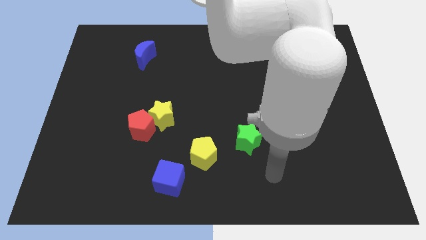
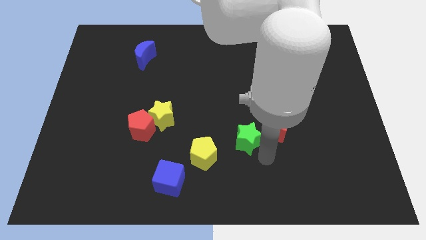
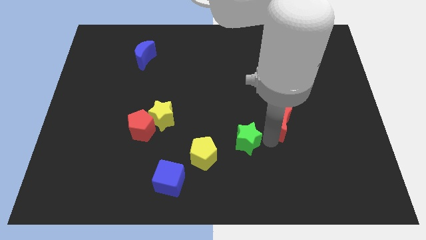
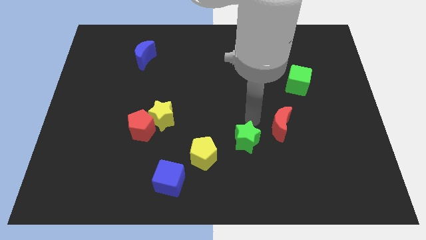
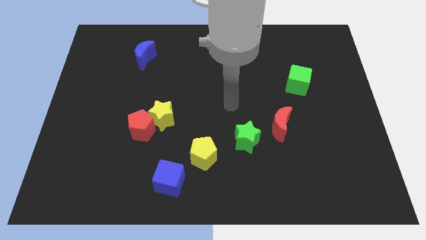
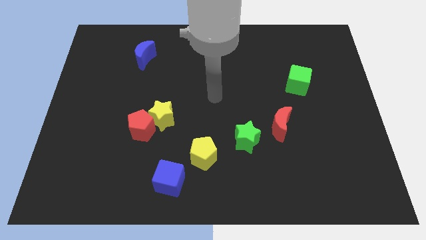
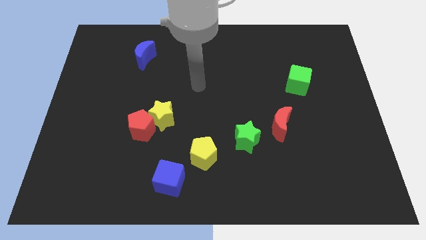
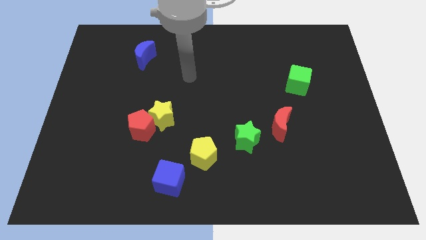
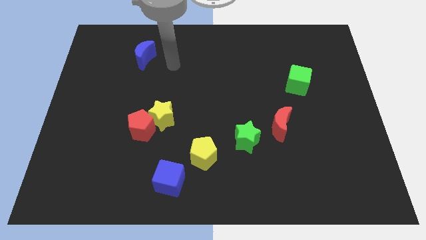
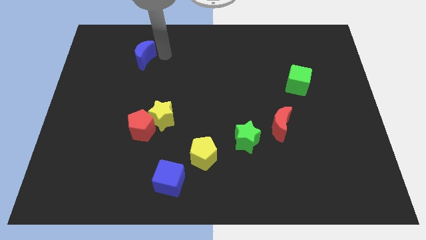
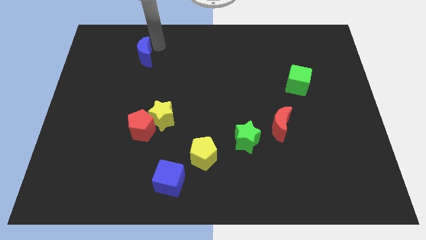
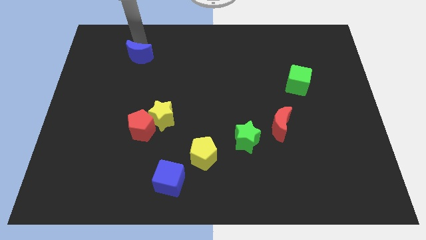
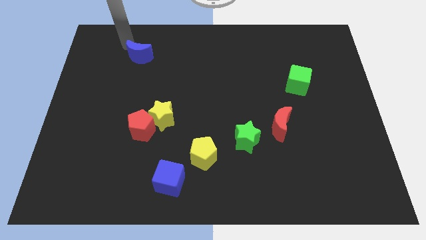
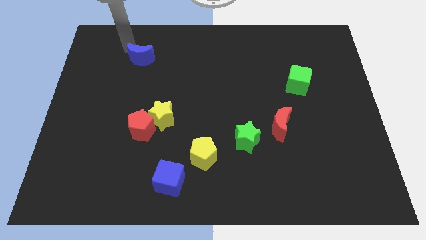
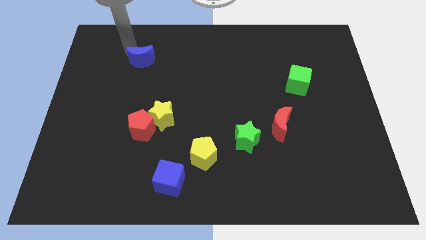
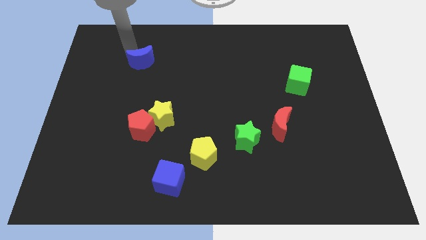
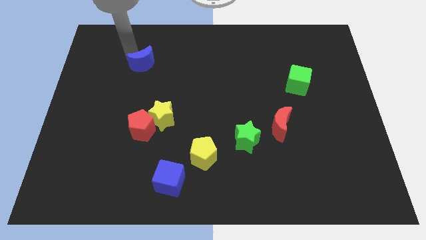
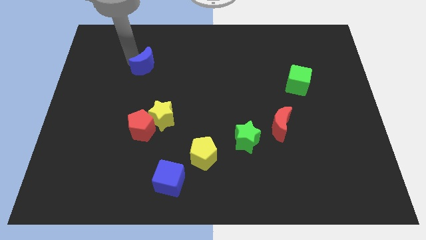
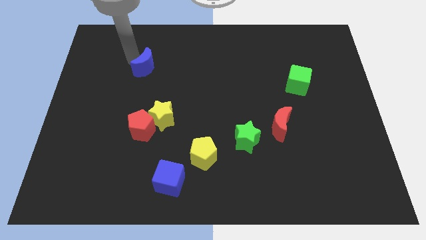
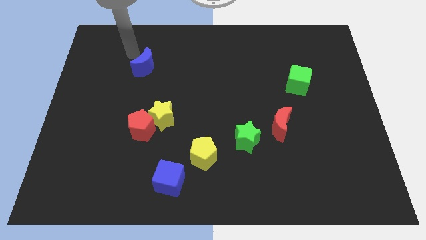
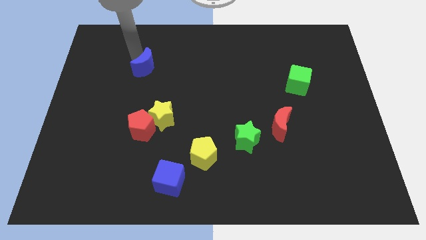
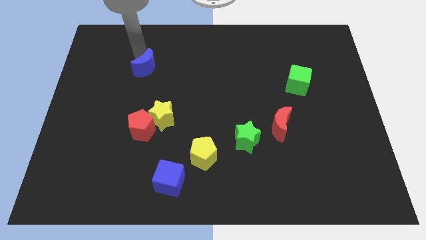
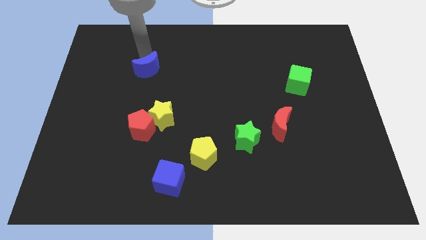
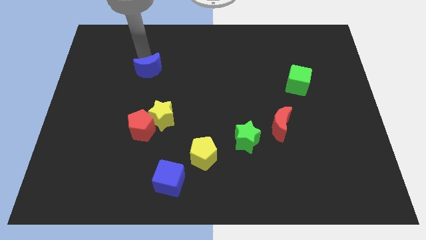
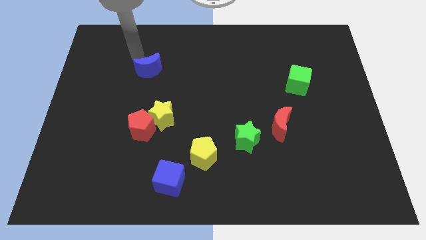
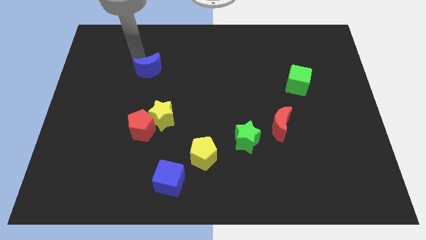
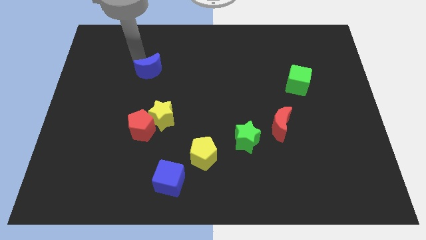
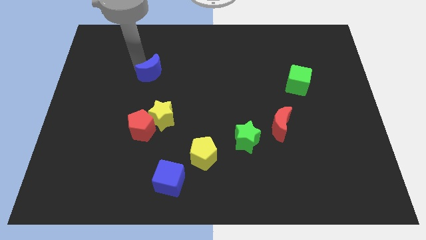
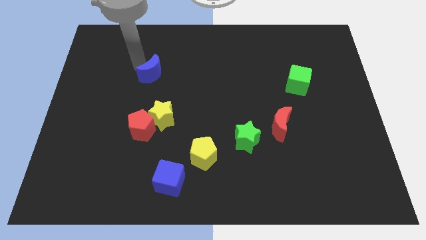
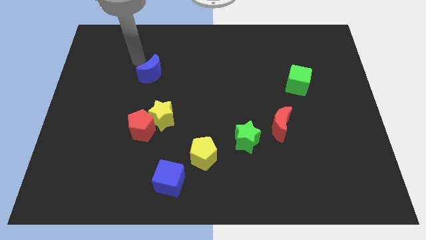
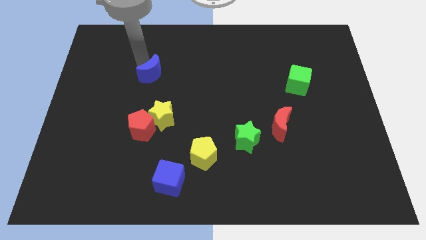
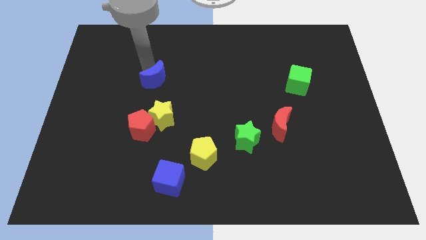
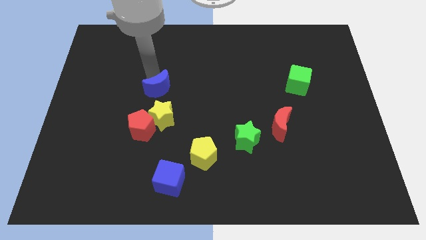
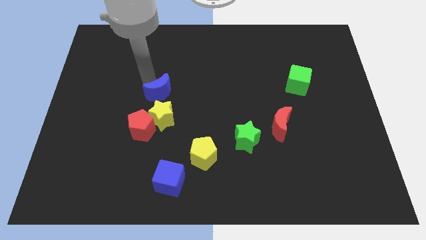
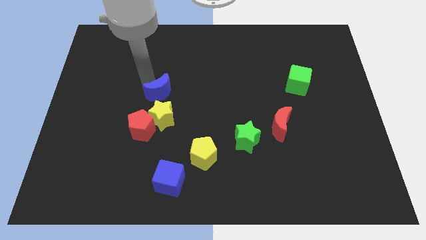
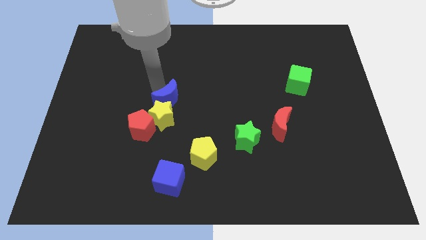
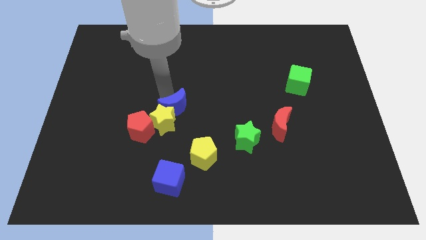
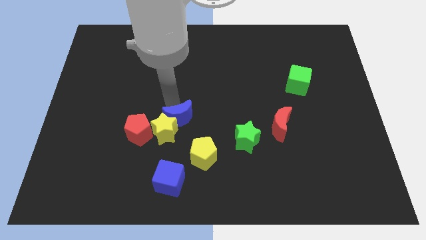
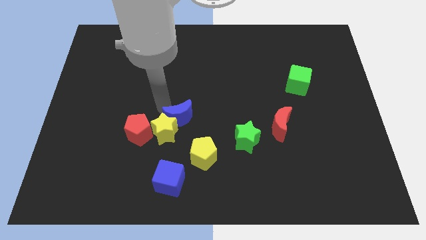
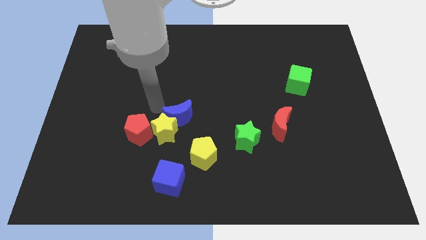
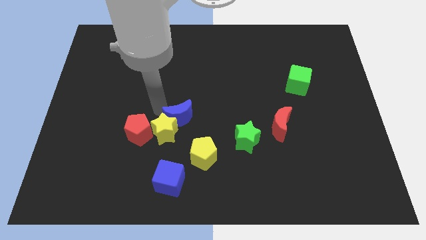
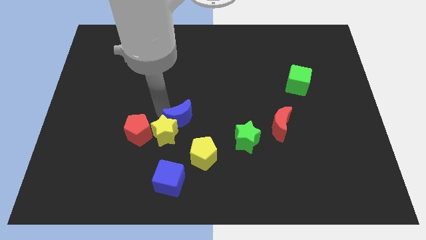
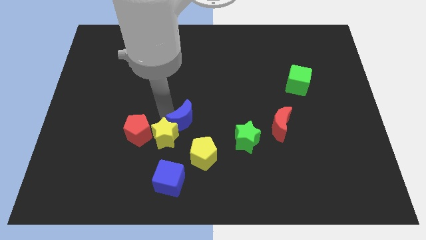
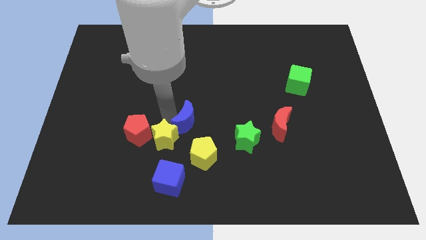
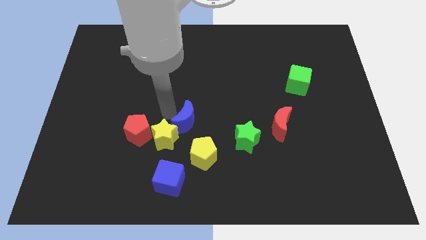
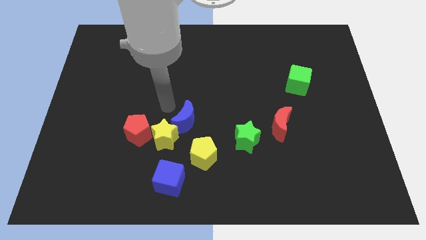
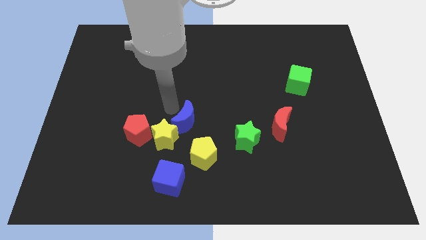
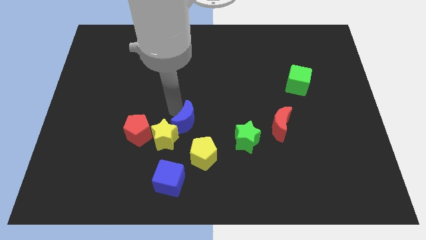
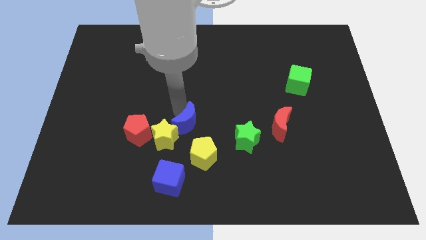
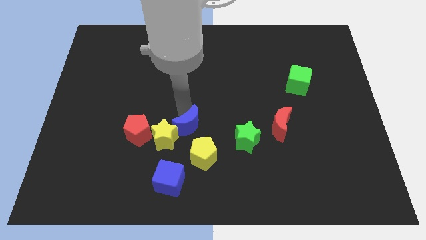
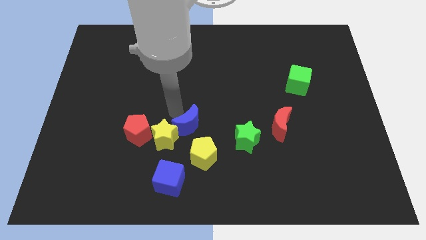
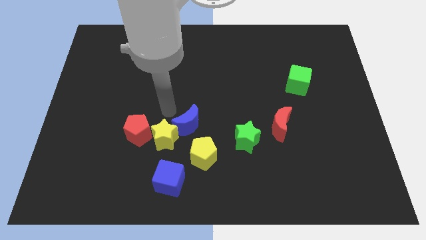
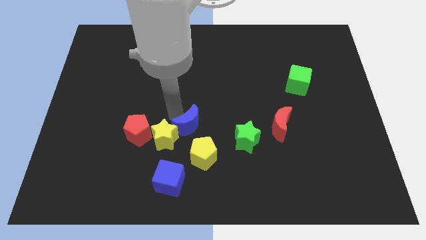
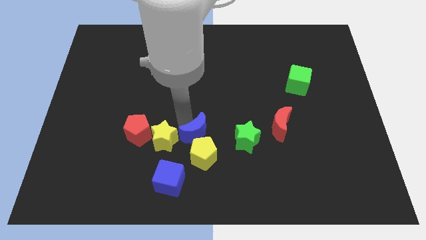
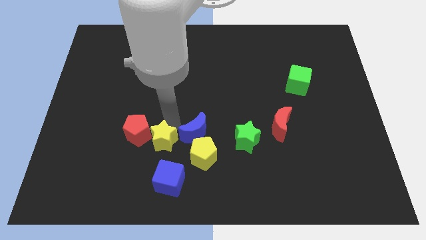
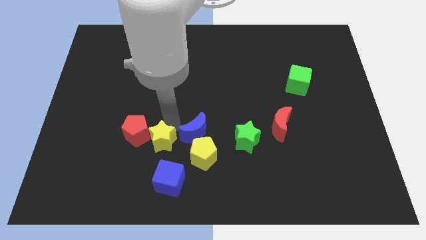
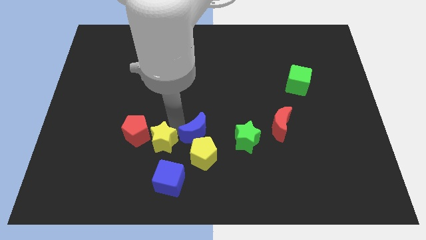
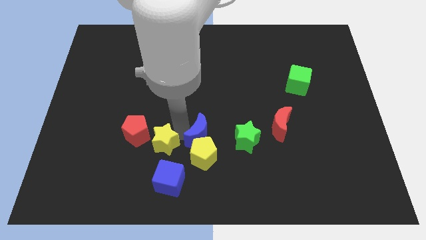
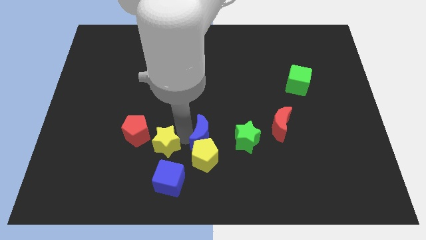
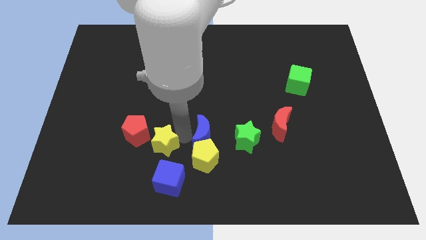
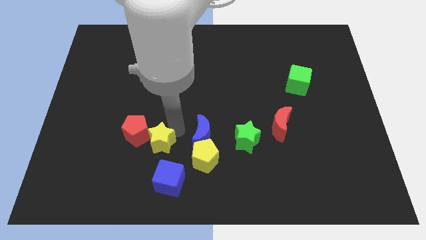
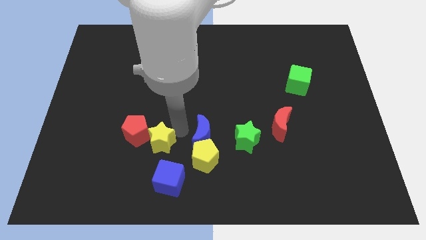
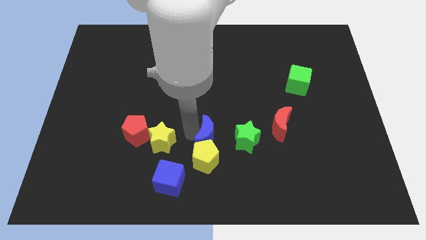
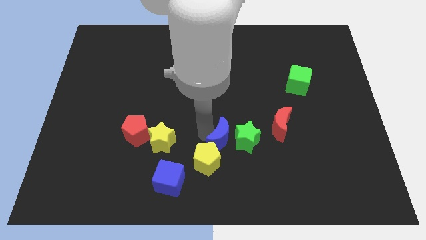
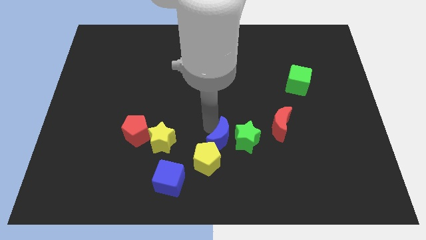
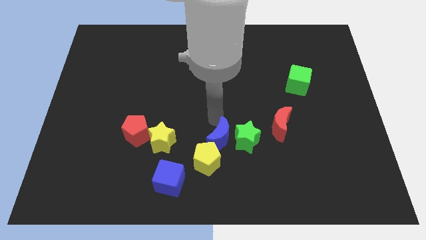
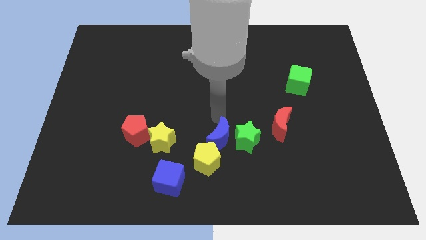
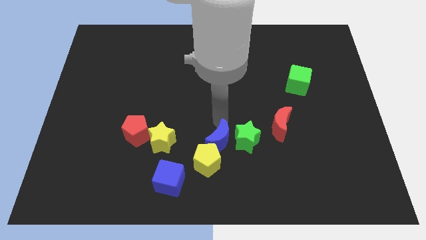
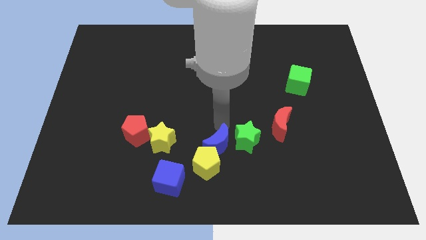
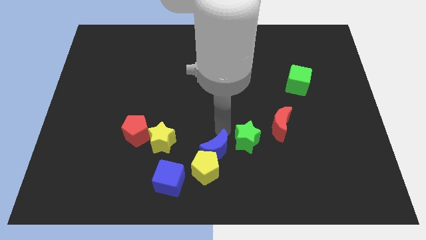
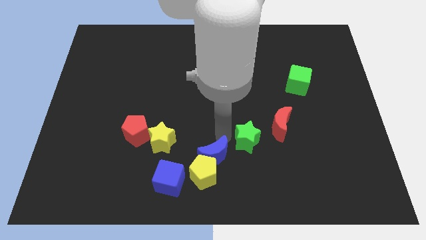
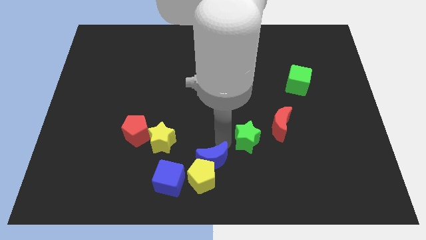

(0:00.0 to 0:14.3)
put the blue moon to the right side of the blue cube
